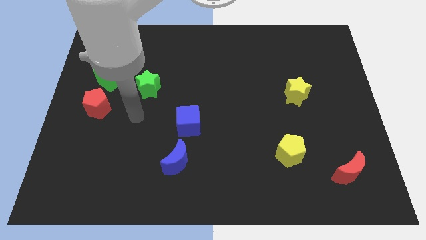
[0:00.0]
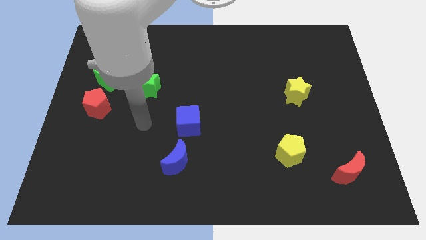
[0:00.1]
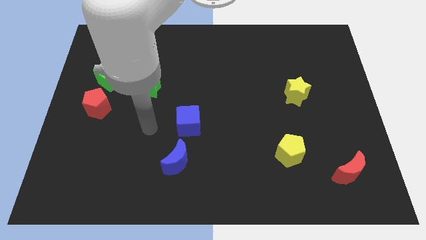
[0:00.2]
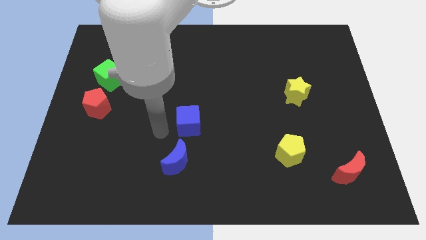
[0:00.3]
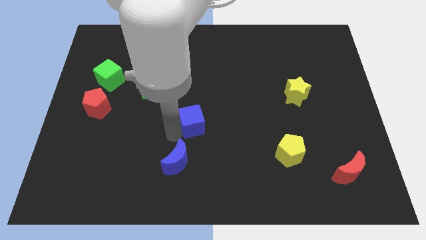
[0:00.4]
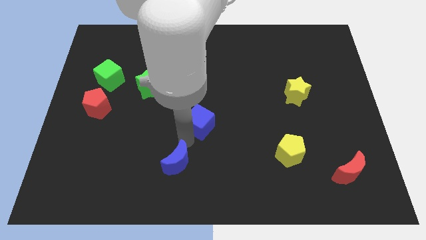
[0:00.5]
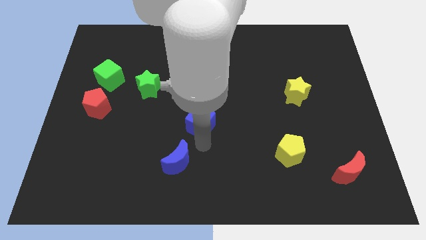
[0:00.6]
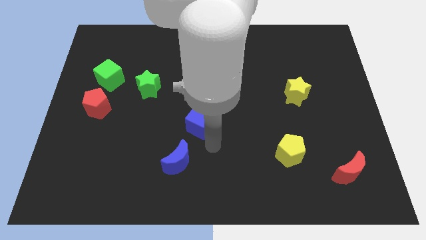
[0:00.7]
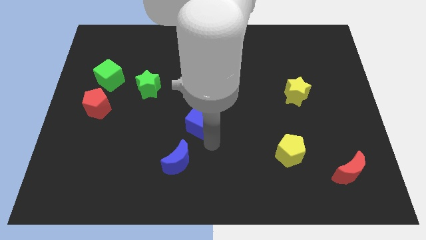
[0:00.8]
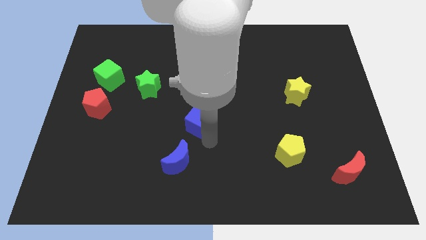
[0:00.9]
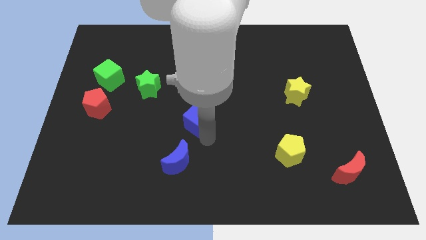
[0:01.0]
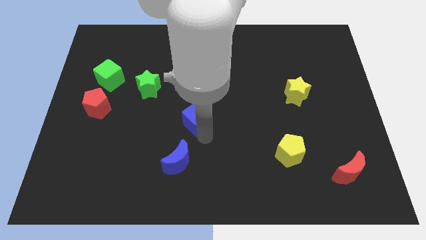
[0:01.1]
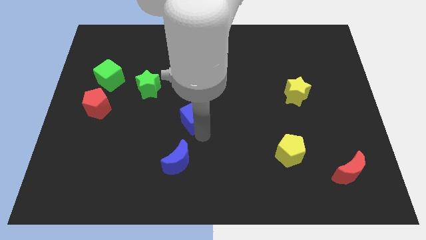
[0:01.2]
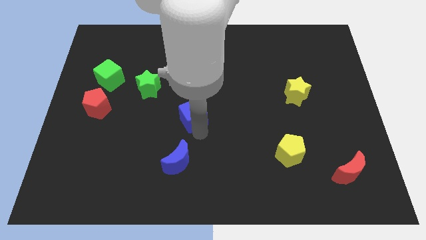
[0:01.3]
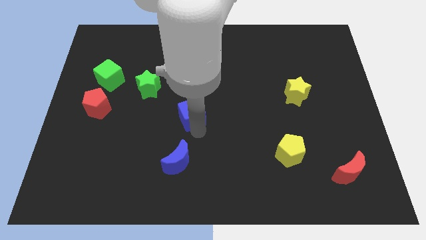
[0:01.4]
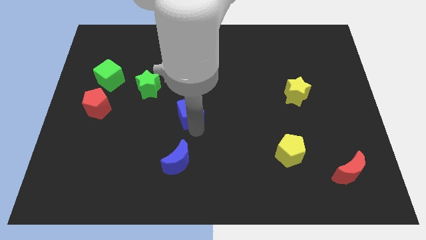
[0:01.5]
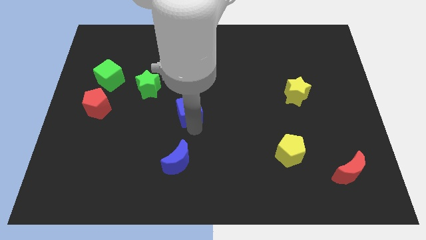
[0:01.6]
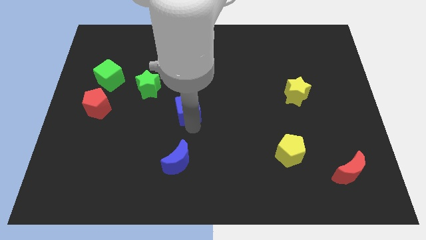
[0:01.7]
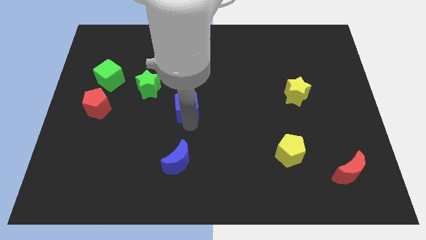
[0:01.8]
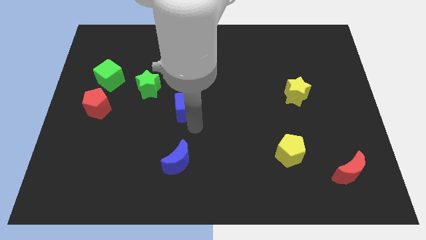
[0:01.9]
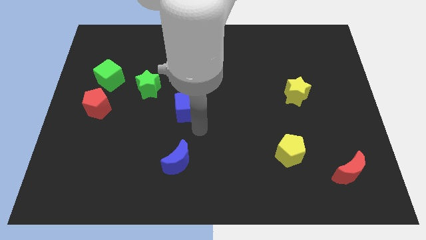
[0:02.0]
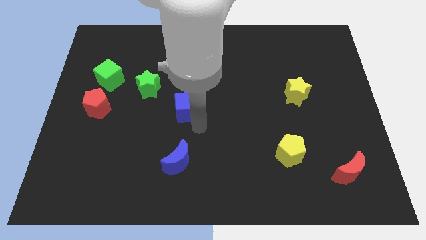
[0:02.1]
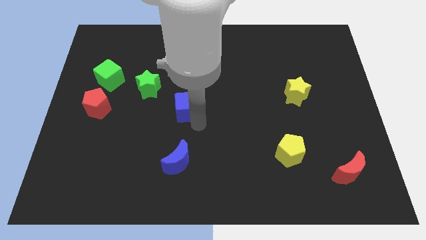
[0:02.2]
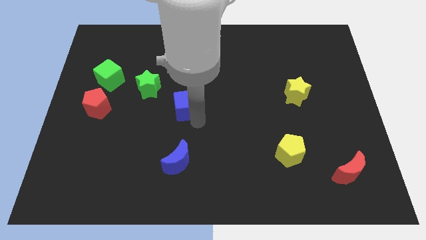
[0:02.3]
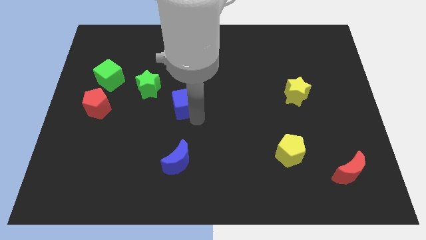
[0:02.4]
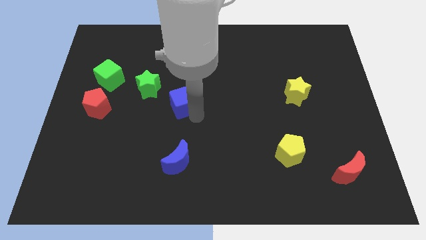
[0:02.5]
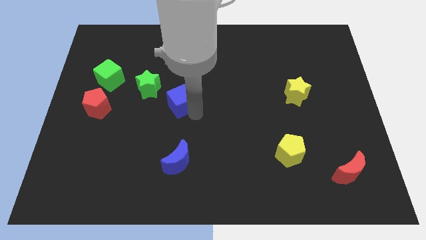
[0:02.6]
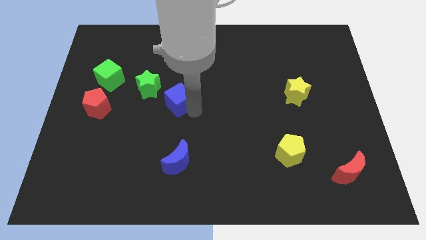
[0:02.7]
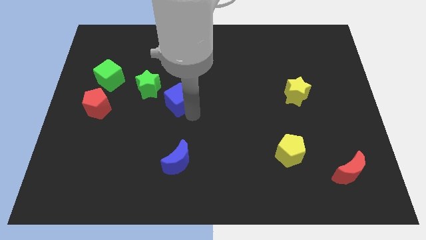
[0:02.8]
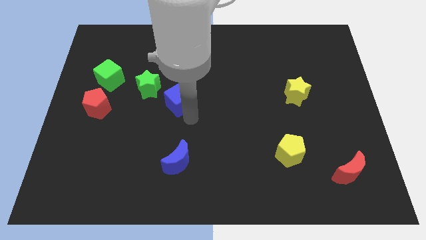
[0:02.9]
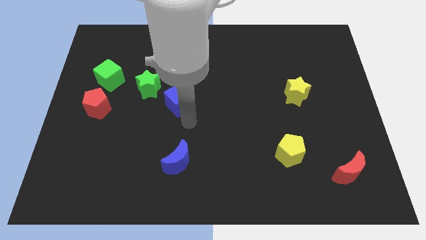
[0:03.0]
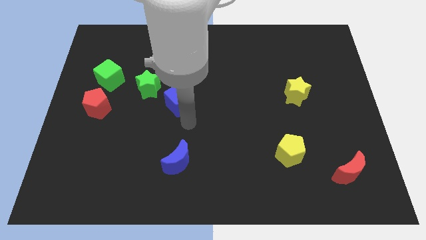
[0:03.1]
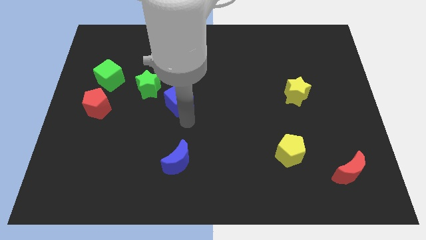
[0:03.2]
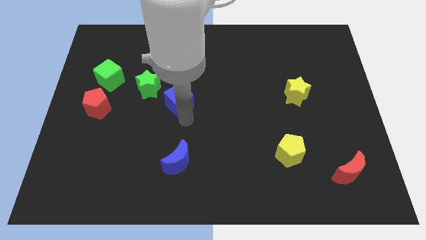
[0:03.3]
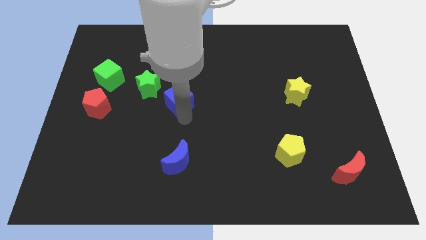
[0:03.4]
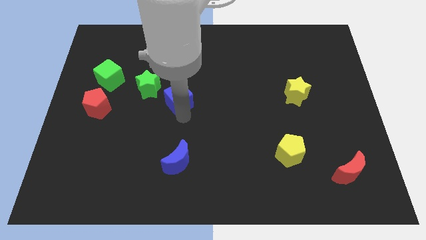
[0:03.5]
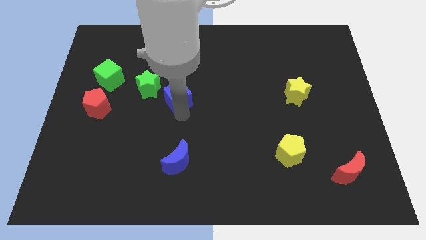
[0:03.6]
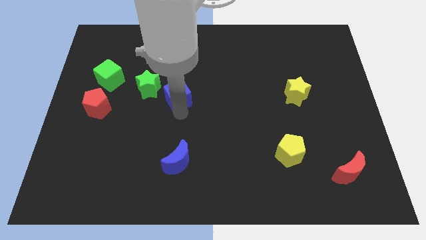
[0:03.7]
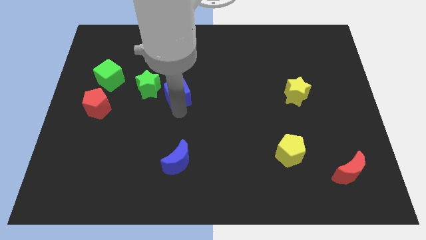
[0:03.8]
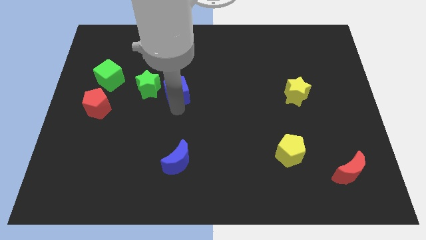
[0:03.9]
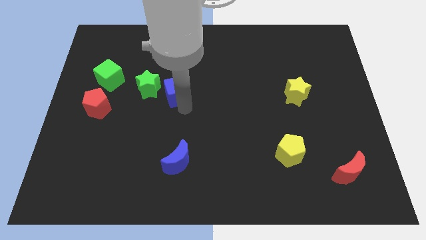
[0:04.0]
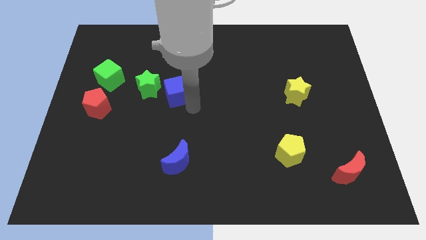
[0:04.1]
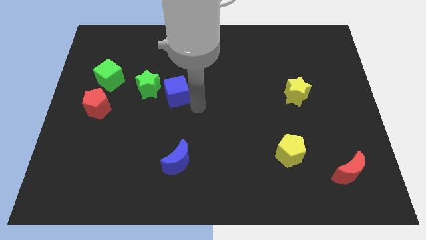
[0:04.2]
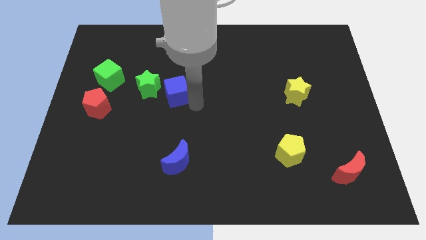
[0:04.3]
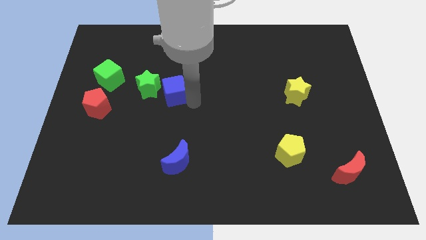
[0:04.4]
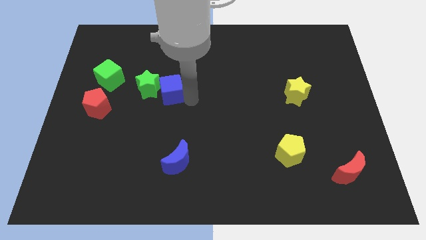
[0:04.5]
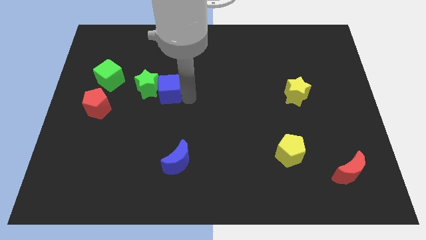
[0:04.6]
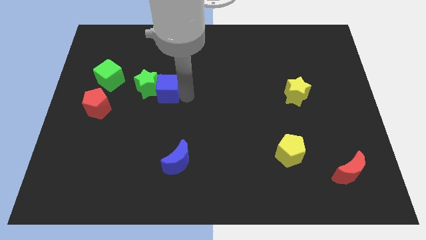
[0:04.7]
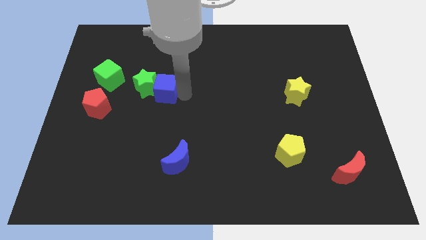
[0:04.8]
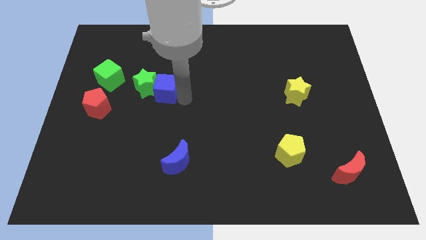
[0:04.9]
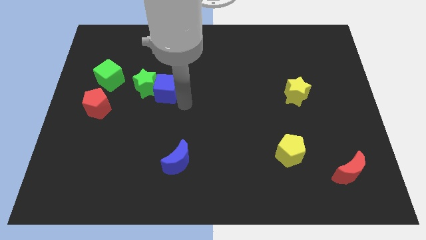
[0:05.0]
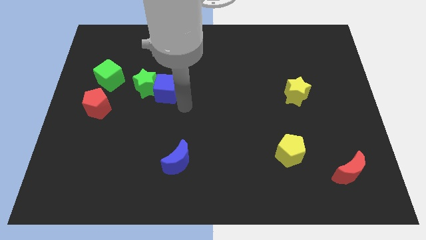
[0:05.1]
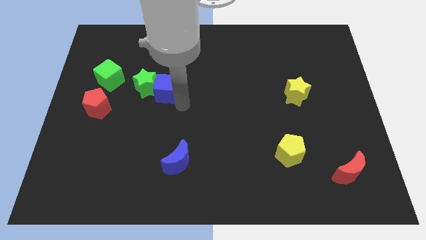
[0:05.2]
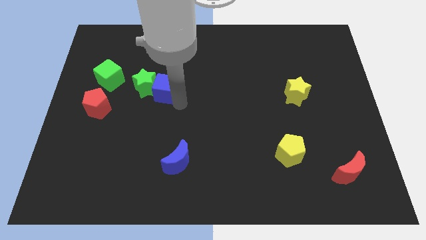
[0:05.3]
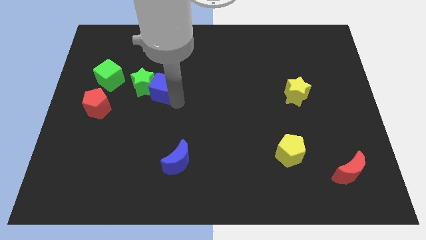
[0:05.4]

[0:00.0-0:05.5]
put the blue cube to the right of the green cube

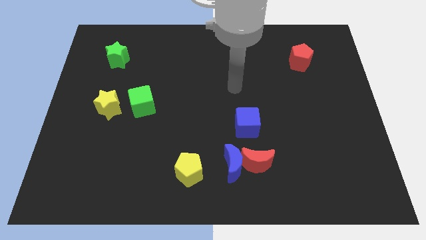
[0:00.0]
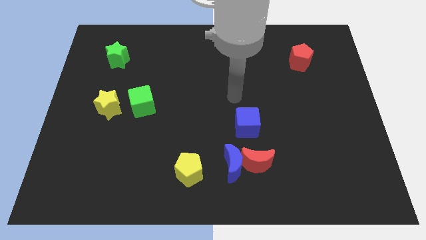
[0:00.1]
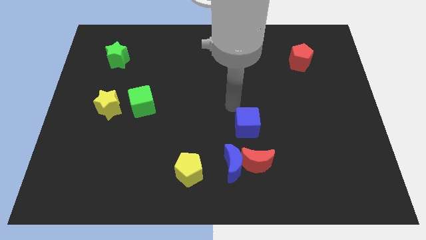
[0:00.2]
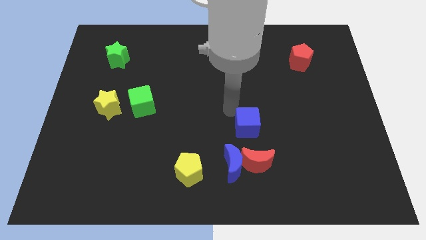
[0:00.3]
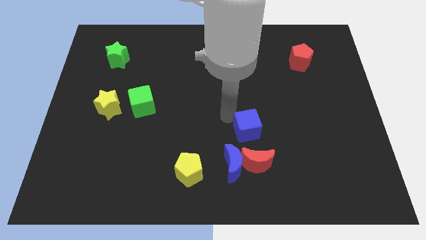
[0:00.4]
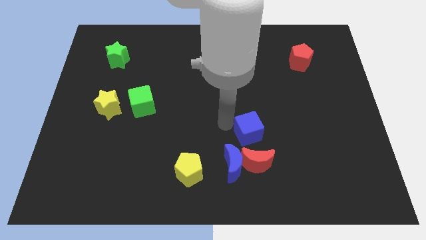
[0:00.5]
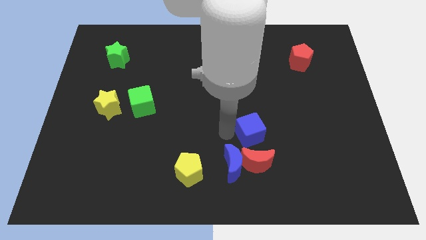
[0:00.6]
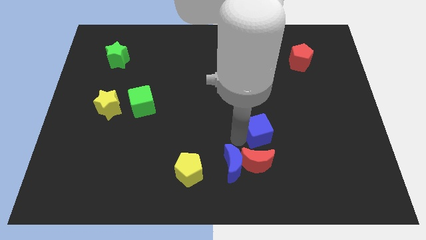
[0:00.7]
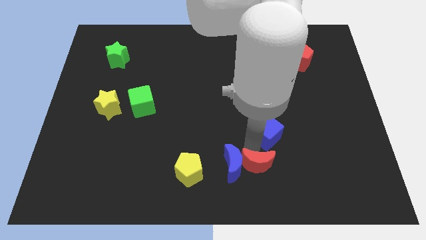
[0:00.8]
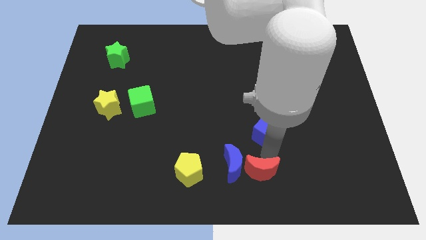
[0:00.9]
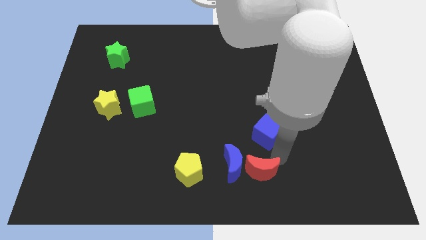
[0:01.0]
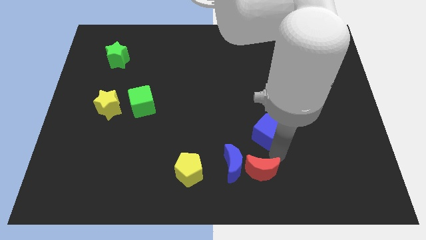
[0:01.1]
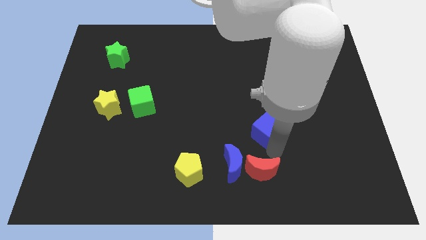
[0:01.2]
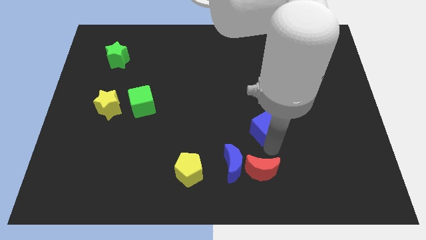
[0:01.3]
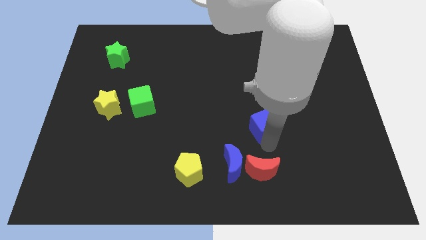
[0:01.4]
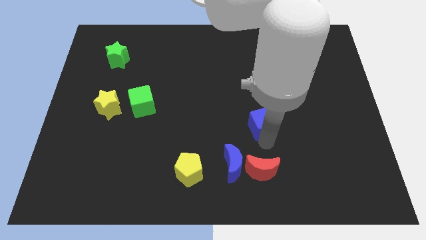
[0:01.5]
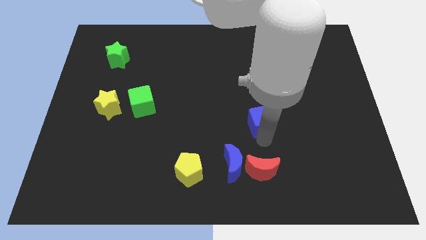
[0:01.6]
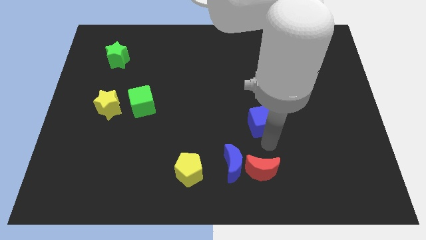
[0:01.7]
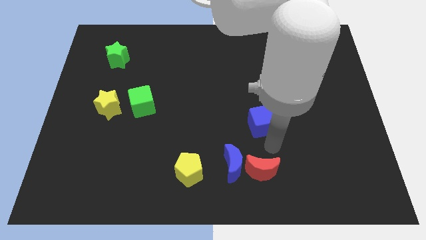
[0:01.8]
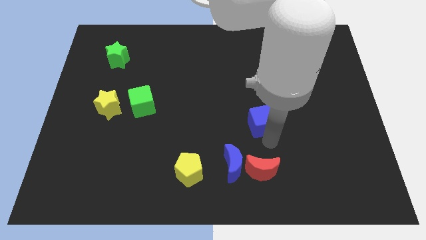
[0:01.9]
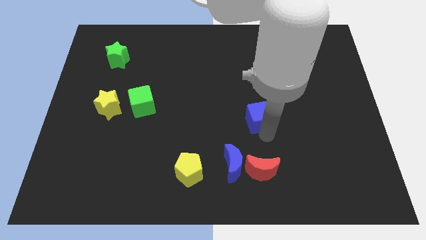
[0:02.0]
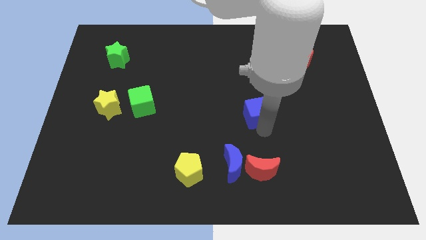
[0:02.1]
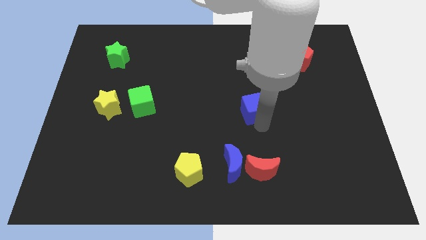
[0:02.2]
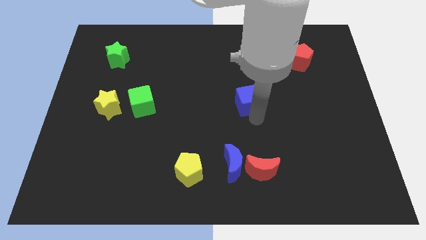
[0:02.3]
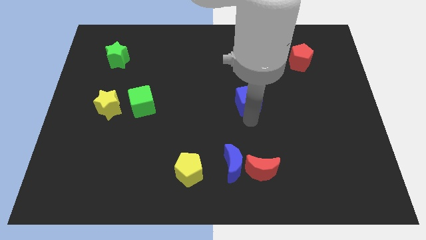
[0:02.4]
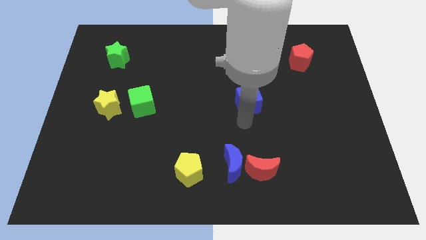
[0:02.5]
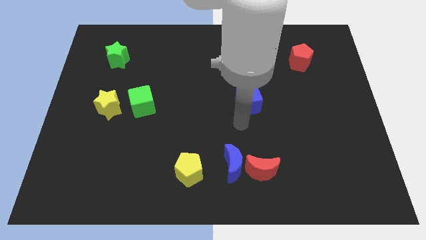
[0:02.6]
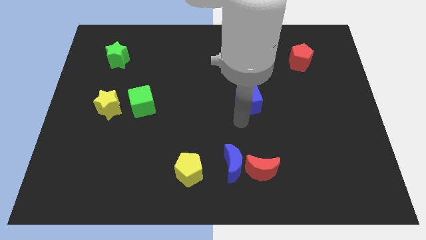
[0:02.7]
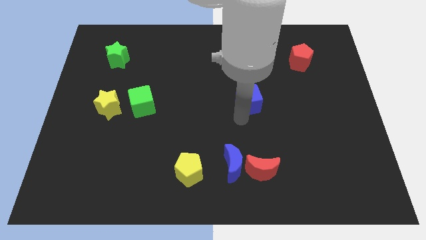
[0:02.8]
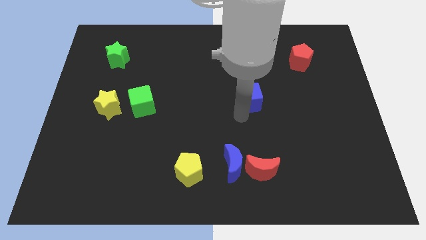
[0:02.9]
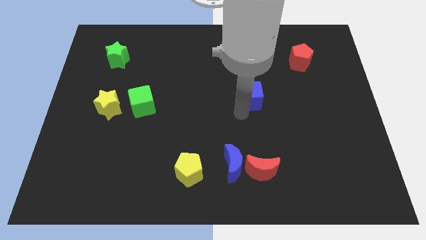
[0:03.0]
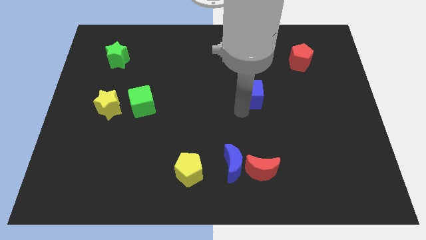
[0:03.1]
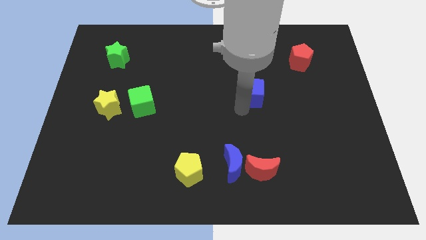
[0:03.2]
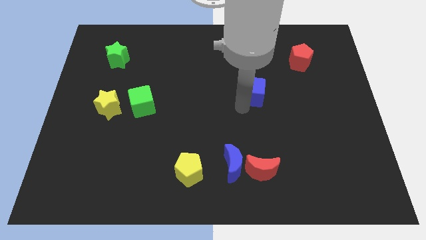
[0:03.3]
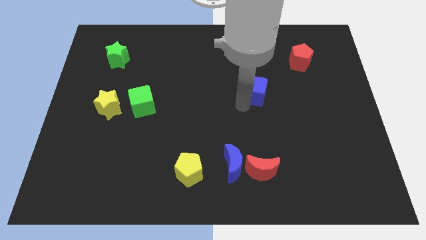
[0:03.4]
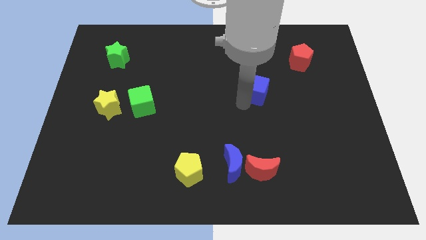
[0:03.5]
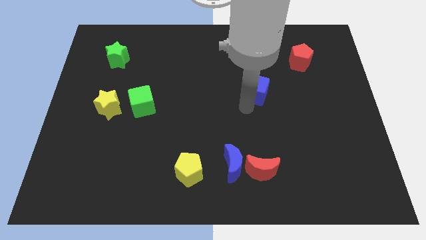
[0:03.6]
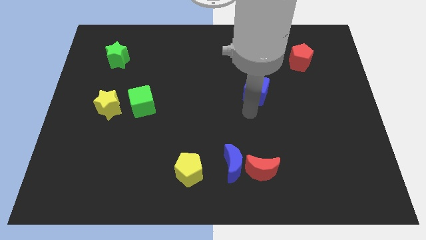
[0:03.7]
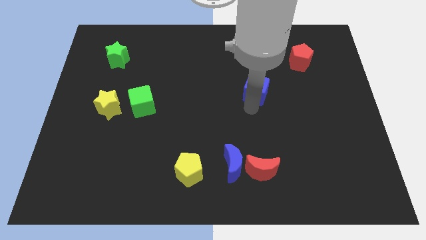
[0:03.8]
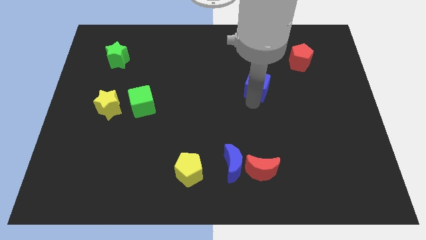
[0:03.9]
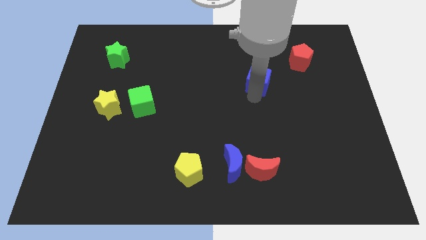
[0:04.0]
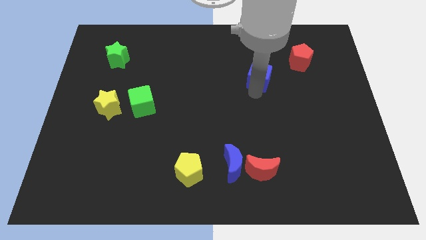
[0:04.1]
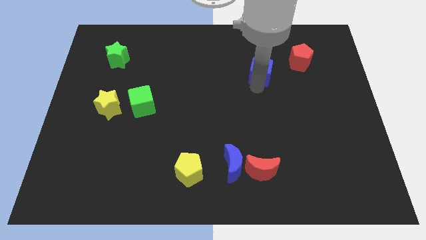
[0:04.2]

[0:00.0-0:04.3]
put the blue cube to the left side of the red pentagon
